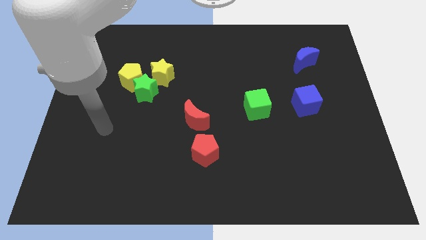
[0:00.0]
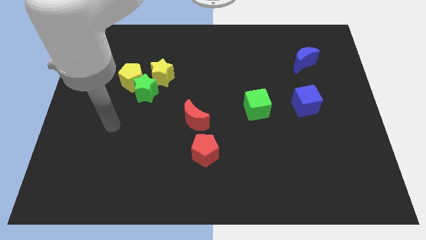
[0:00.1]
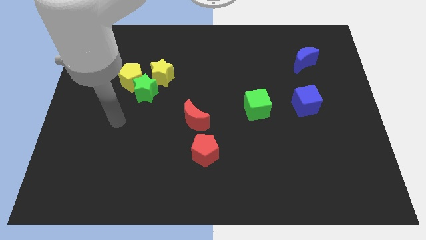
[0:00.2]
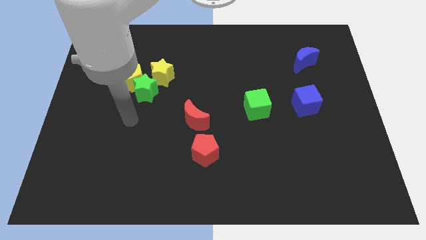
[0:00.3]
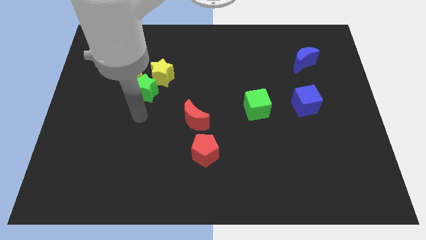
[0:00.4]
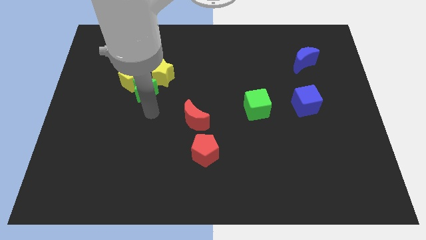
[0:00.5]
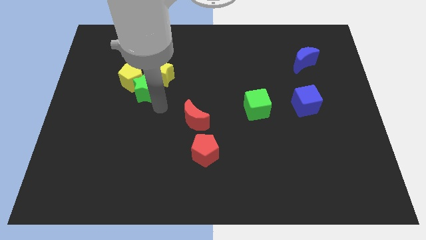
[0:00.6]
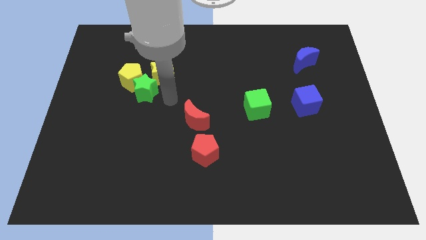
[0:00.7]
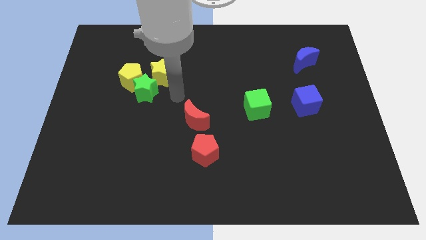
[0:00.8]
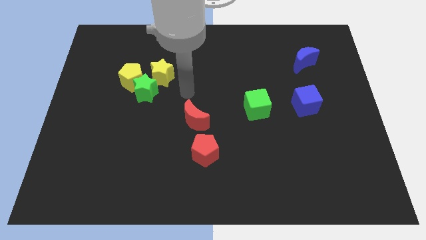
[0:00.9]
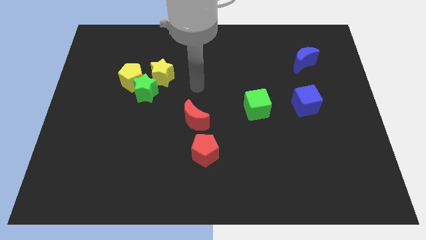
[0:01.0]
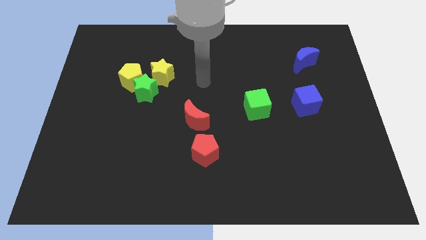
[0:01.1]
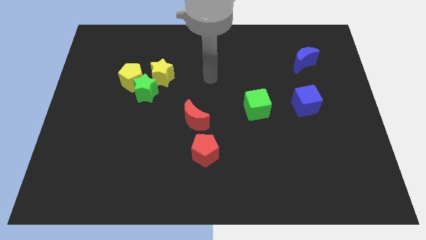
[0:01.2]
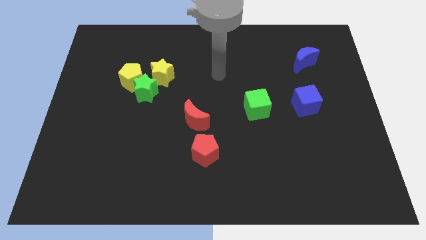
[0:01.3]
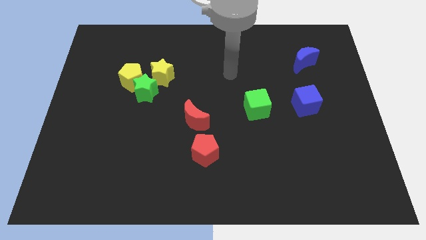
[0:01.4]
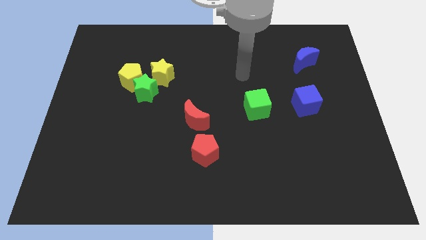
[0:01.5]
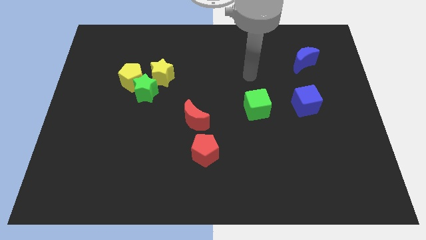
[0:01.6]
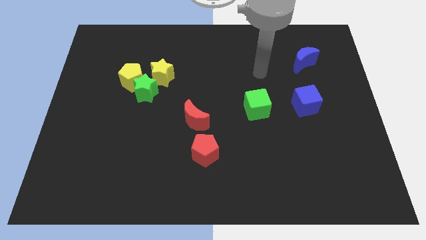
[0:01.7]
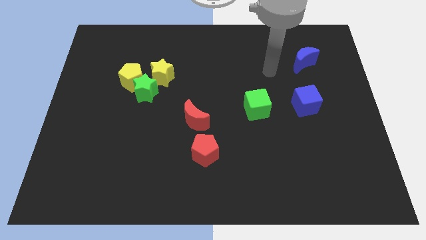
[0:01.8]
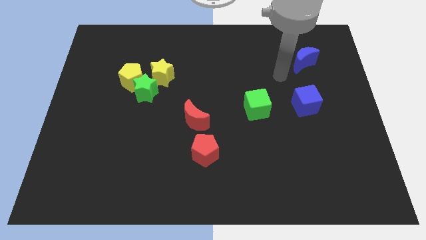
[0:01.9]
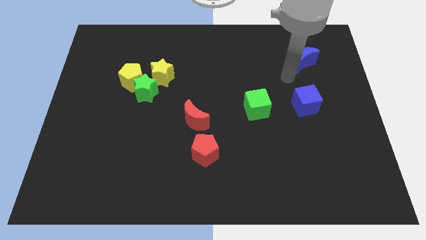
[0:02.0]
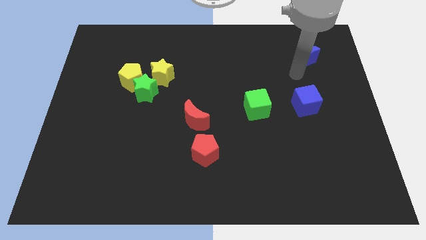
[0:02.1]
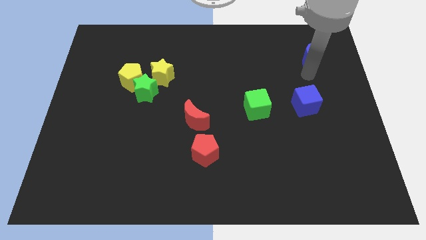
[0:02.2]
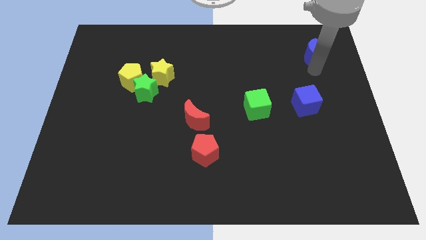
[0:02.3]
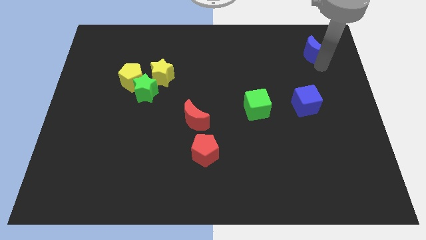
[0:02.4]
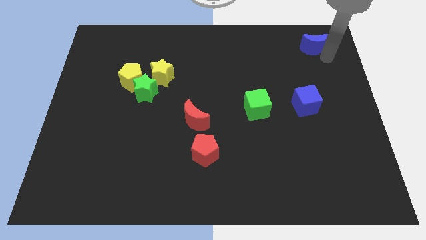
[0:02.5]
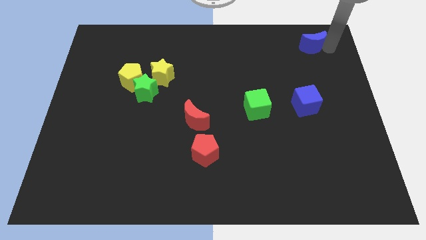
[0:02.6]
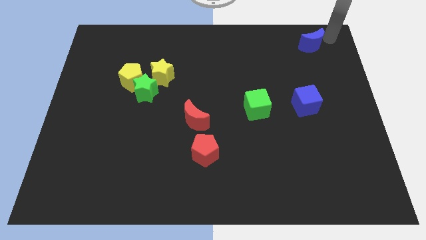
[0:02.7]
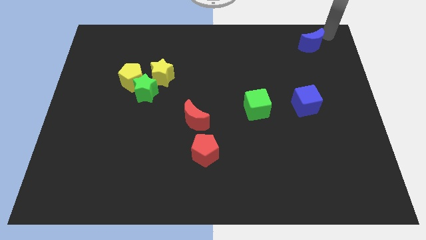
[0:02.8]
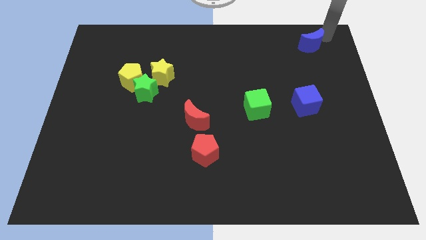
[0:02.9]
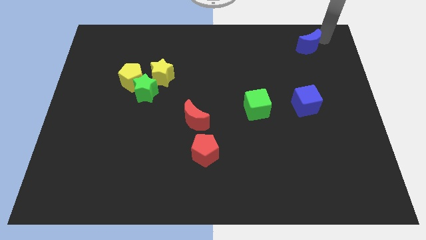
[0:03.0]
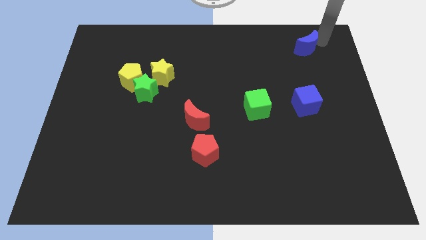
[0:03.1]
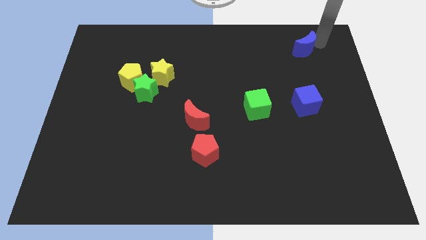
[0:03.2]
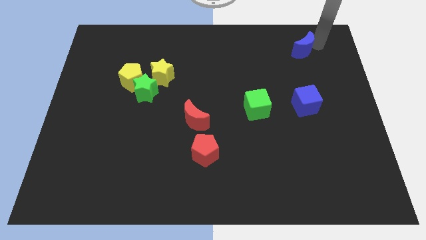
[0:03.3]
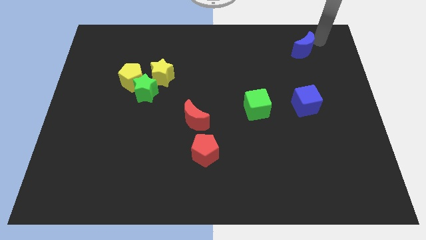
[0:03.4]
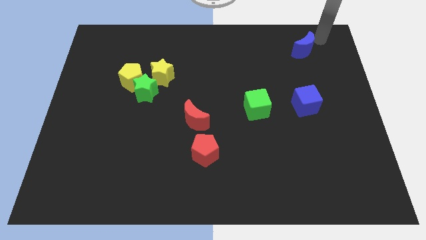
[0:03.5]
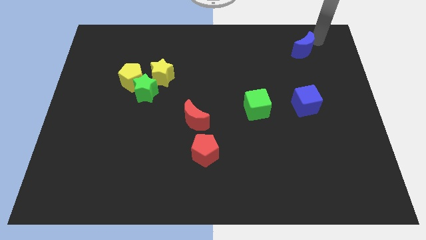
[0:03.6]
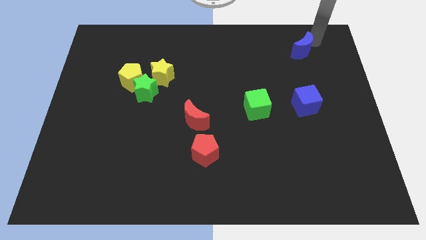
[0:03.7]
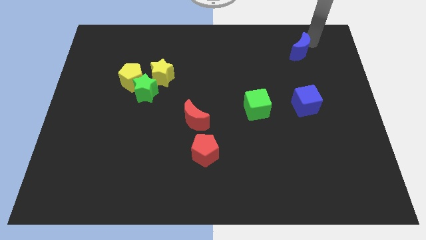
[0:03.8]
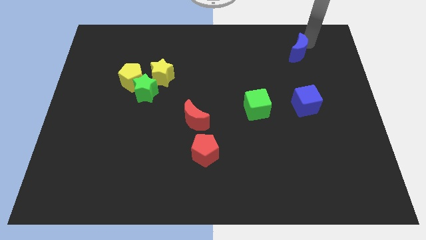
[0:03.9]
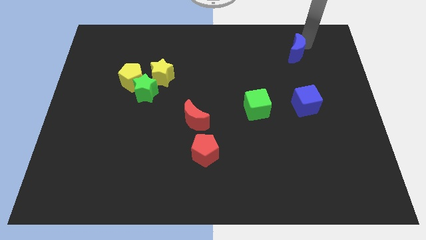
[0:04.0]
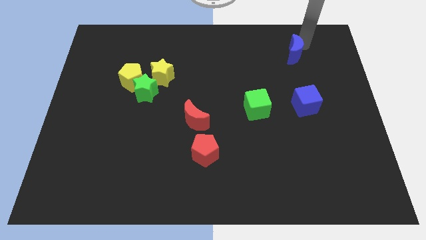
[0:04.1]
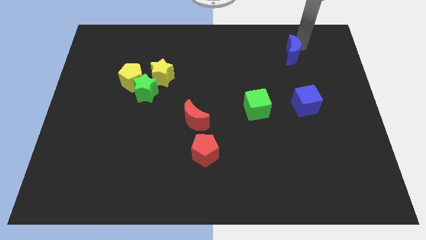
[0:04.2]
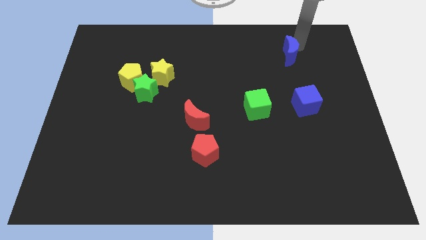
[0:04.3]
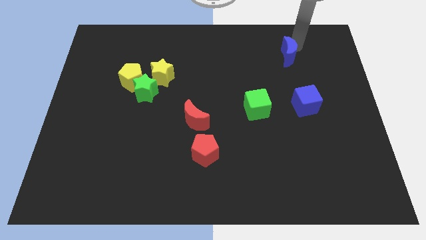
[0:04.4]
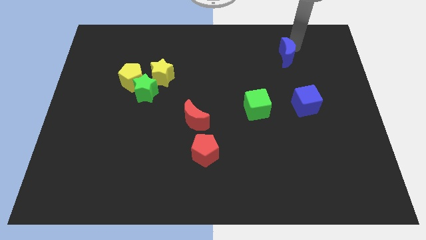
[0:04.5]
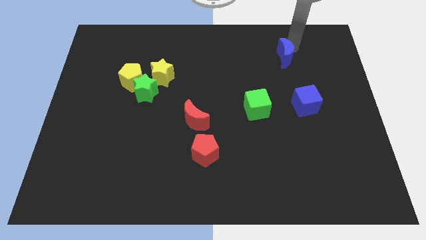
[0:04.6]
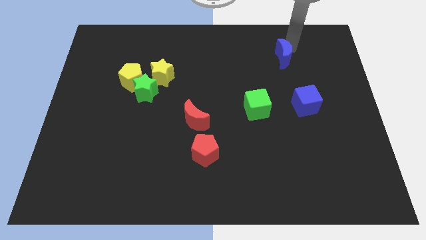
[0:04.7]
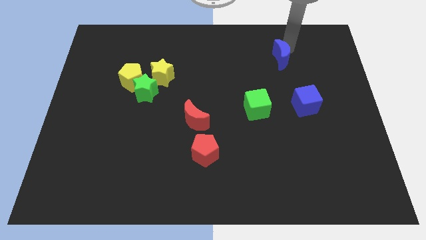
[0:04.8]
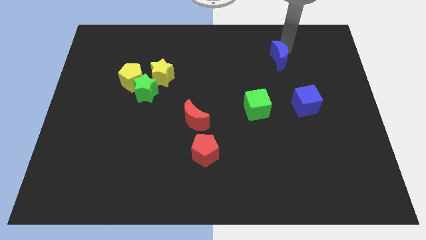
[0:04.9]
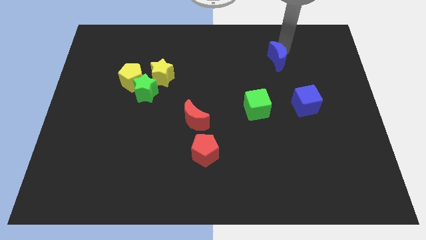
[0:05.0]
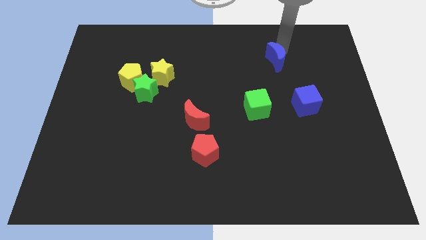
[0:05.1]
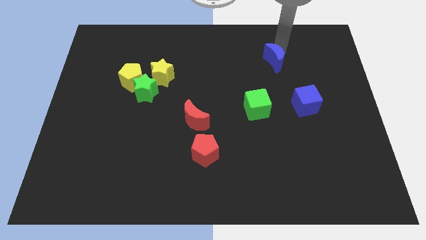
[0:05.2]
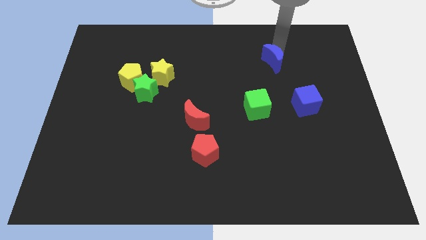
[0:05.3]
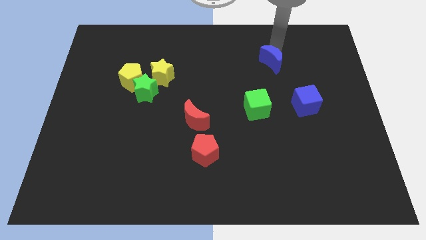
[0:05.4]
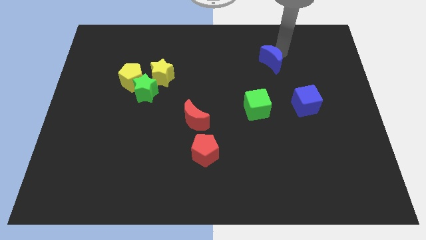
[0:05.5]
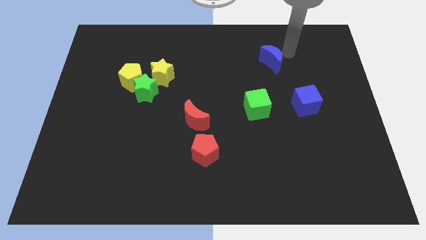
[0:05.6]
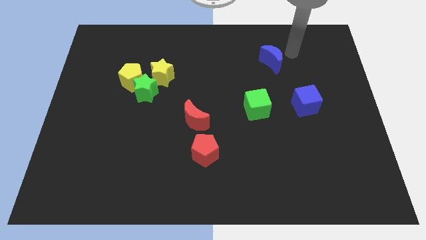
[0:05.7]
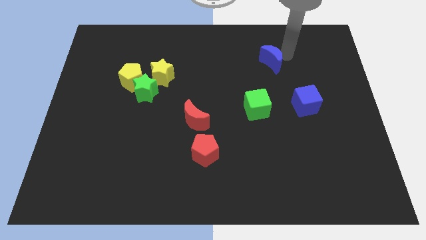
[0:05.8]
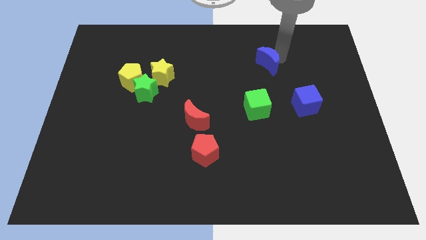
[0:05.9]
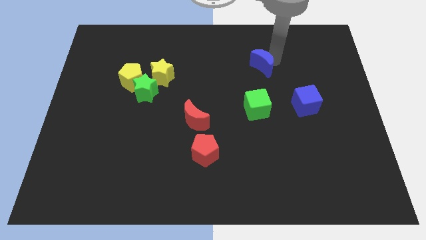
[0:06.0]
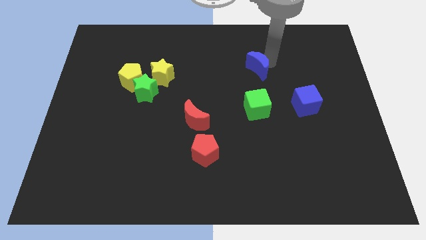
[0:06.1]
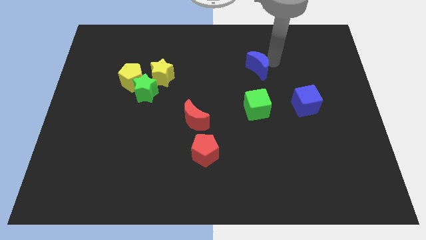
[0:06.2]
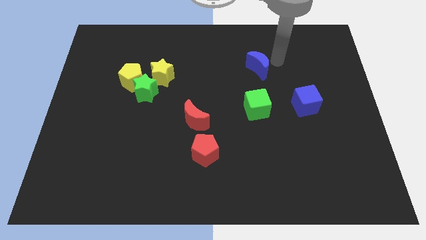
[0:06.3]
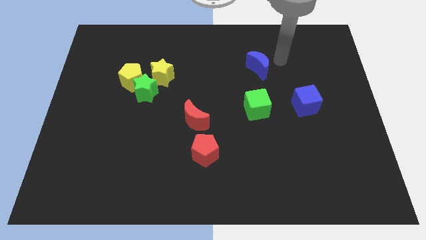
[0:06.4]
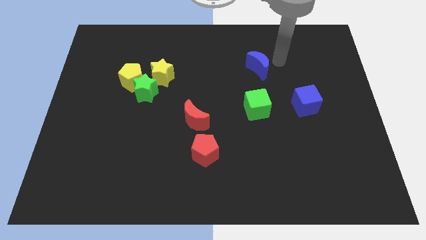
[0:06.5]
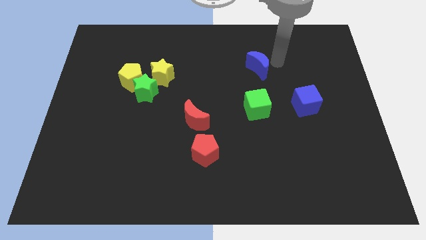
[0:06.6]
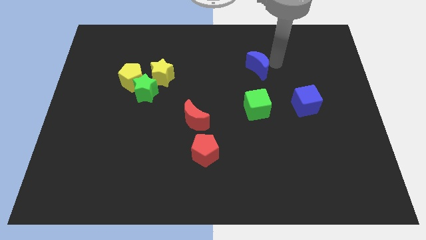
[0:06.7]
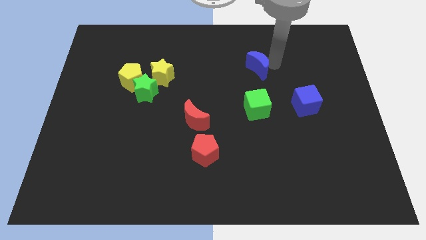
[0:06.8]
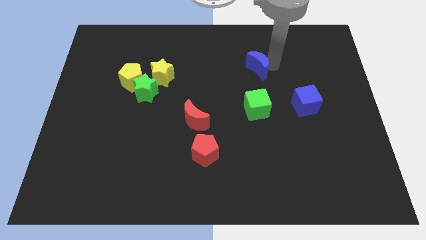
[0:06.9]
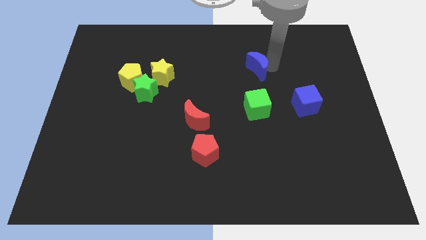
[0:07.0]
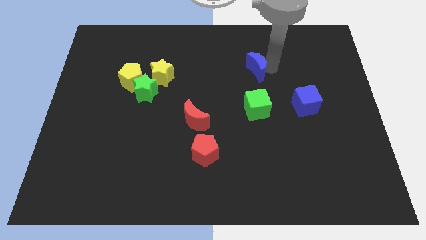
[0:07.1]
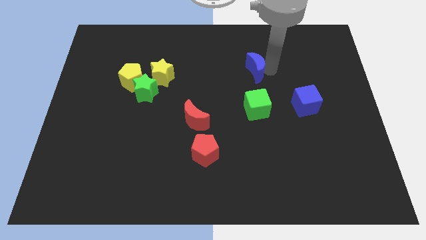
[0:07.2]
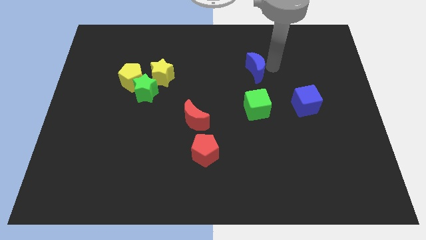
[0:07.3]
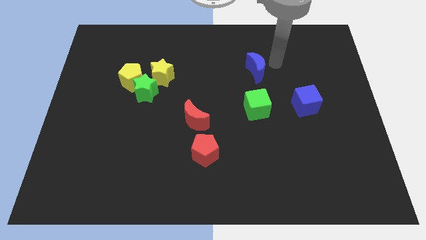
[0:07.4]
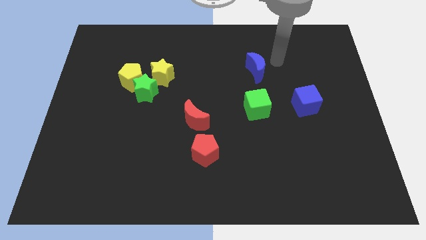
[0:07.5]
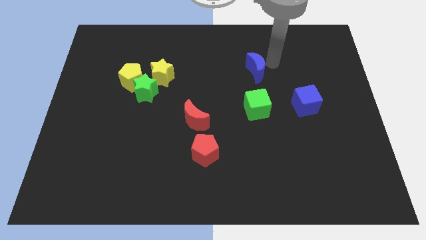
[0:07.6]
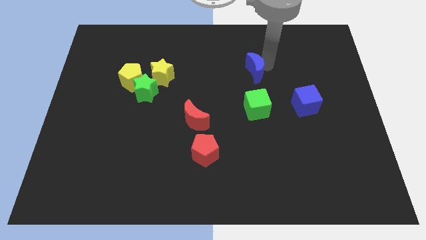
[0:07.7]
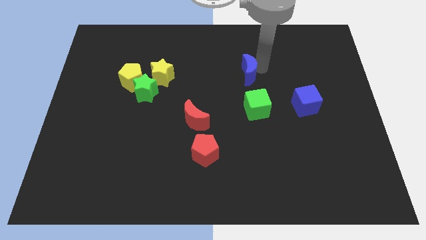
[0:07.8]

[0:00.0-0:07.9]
move the blue moon to the middle of the board
